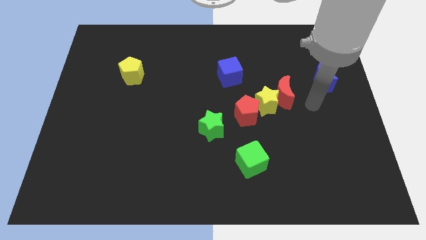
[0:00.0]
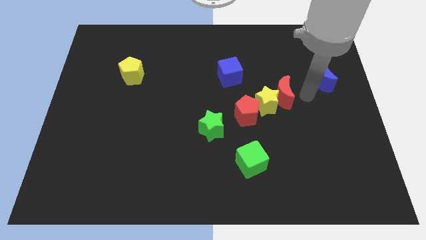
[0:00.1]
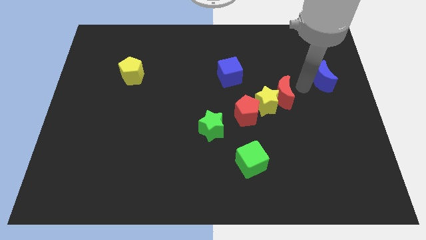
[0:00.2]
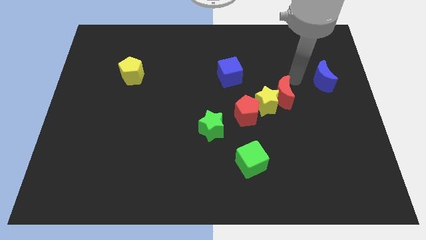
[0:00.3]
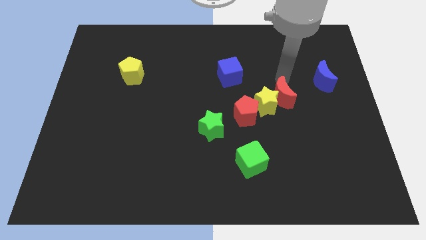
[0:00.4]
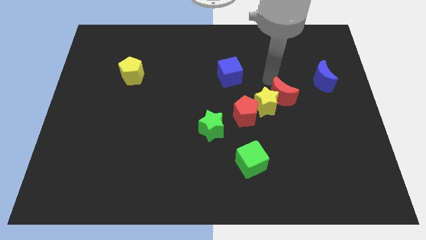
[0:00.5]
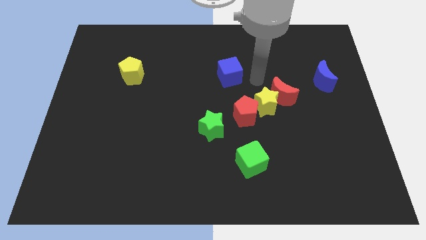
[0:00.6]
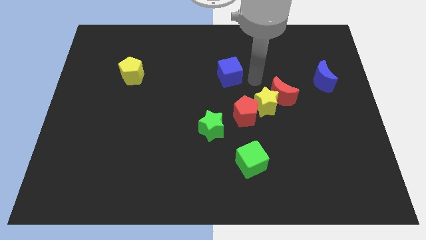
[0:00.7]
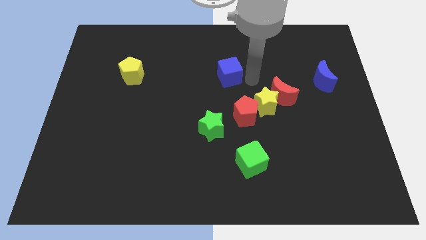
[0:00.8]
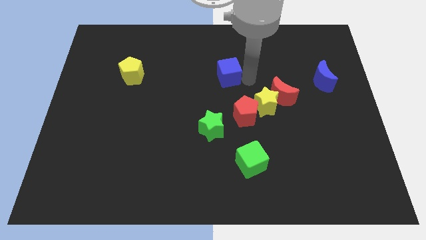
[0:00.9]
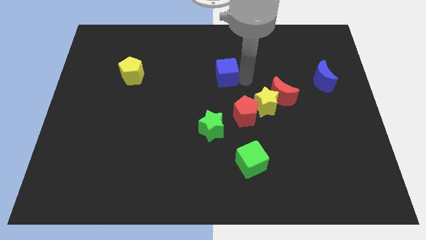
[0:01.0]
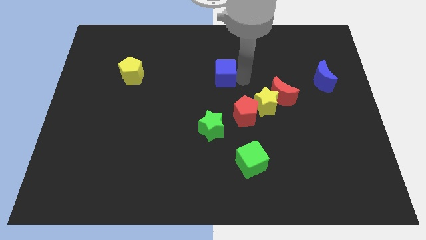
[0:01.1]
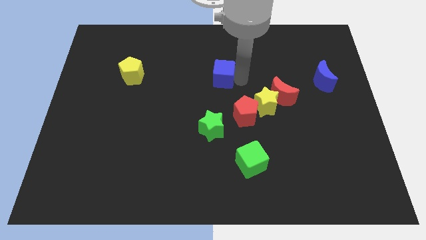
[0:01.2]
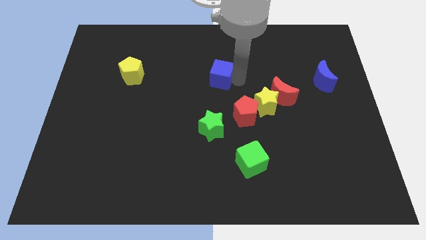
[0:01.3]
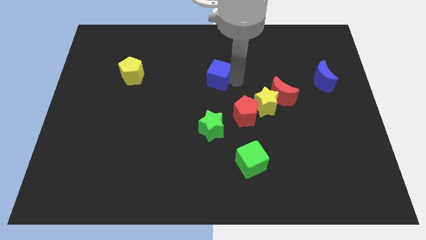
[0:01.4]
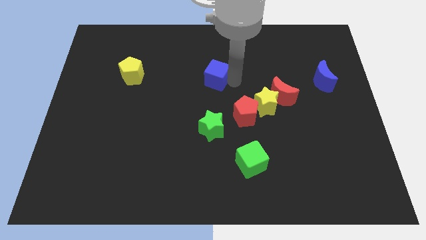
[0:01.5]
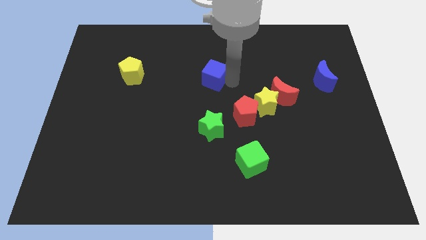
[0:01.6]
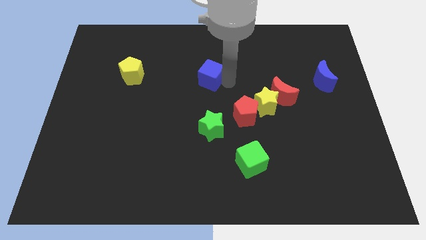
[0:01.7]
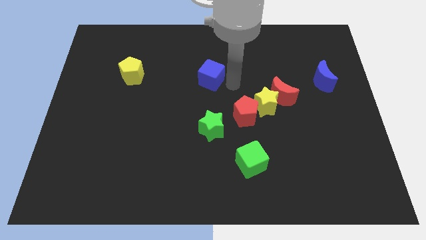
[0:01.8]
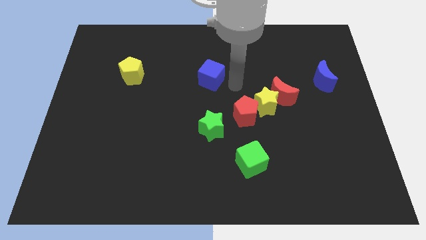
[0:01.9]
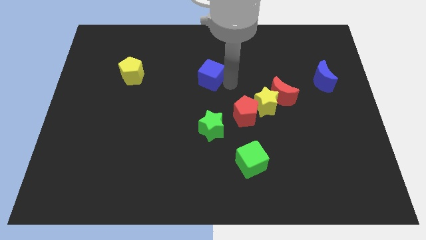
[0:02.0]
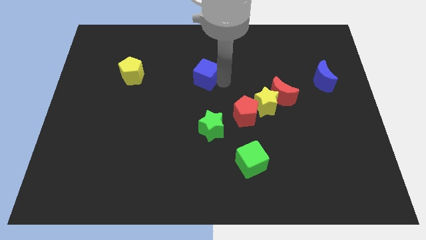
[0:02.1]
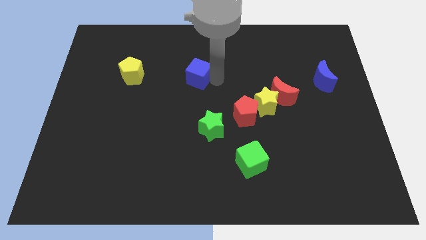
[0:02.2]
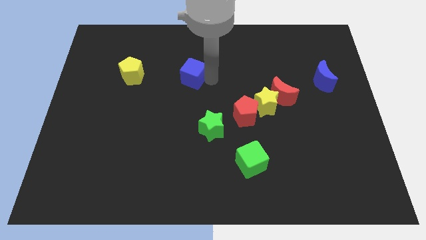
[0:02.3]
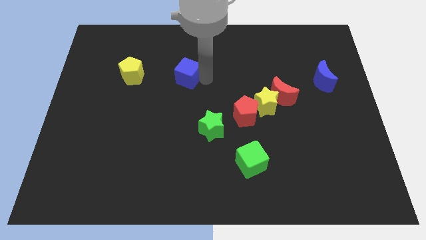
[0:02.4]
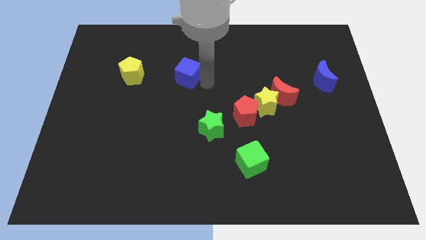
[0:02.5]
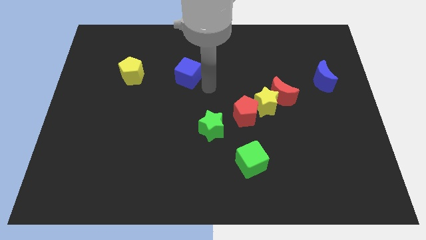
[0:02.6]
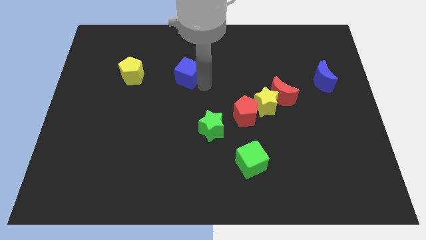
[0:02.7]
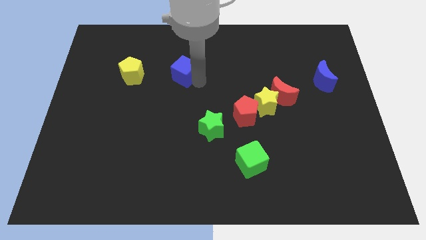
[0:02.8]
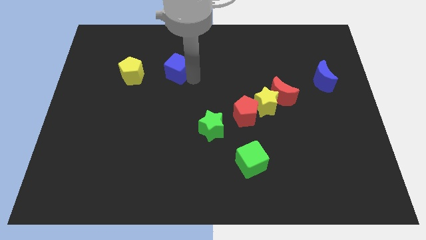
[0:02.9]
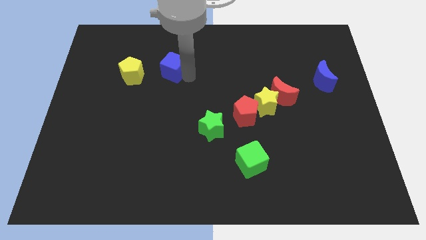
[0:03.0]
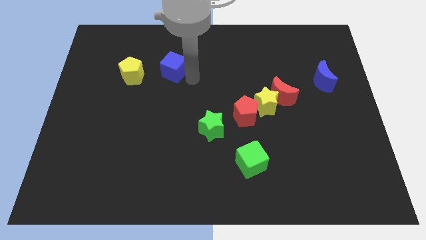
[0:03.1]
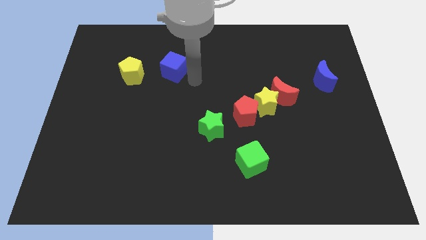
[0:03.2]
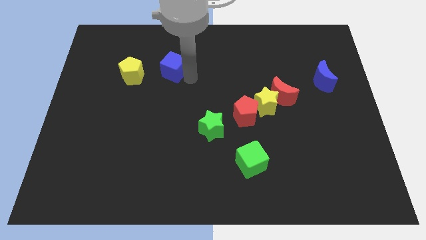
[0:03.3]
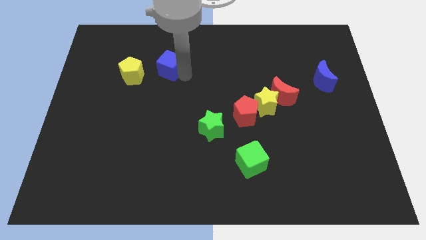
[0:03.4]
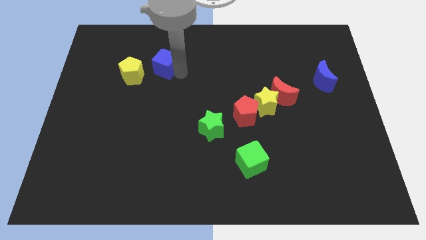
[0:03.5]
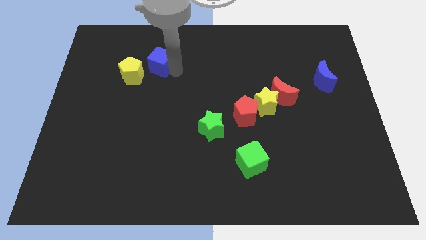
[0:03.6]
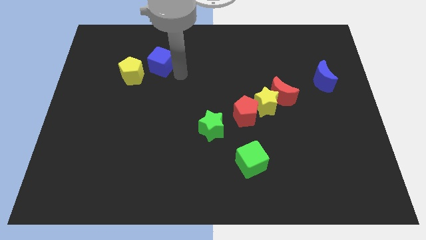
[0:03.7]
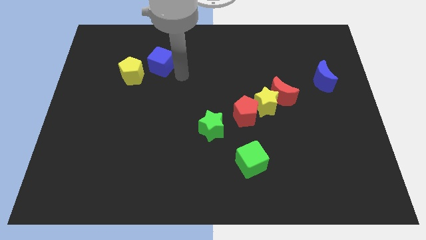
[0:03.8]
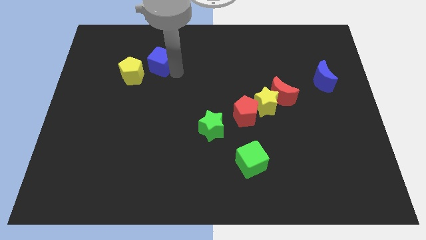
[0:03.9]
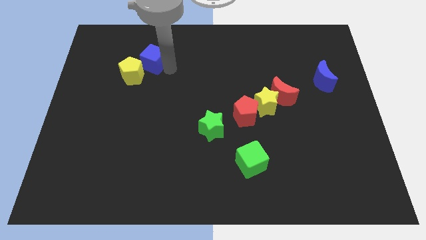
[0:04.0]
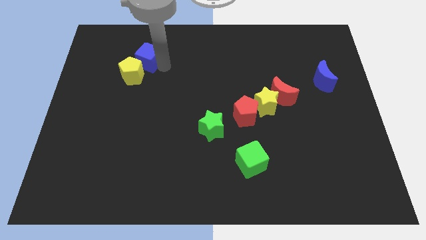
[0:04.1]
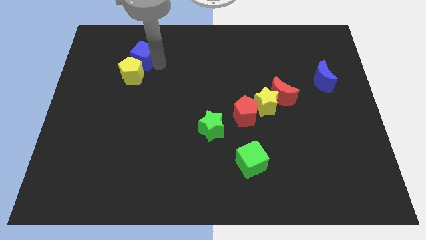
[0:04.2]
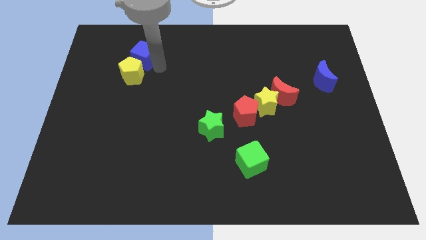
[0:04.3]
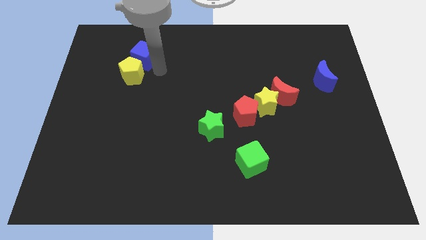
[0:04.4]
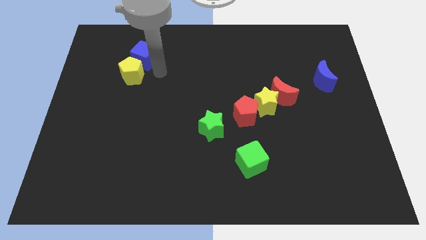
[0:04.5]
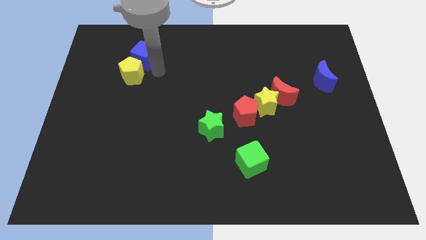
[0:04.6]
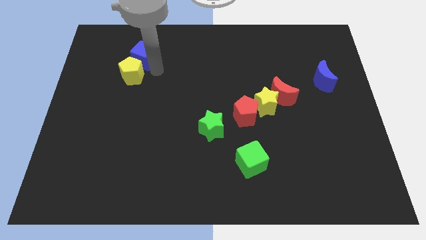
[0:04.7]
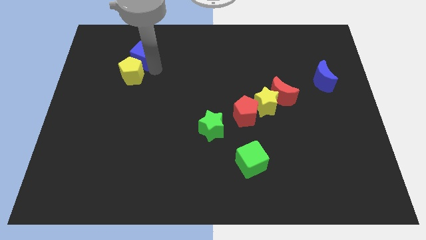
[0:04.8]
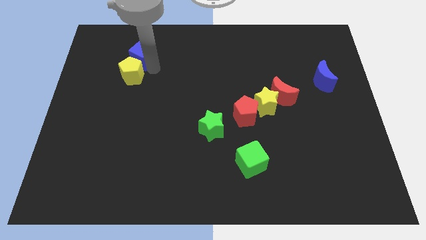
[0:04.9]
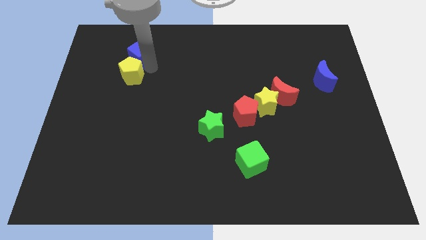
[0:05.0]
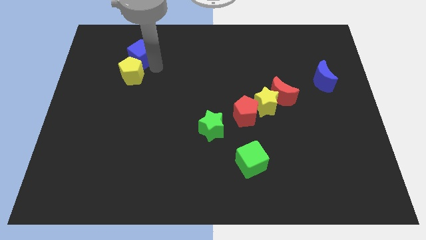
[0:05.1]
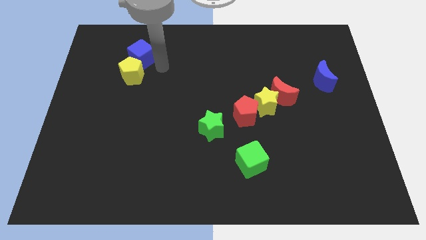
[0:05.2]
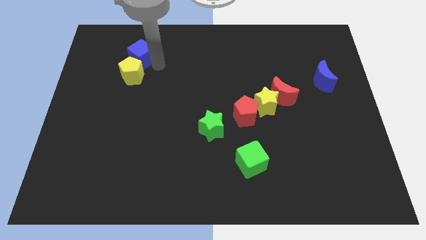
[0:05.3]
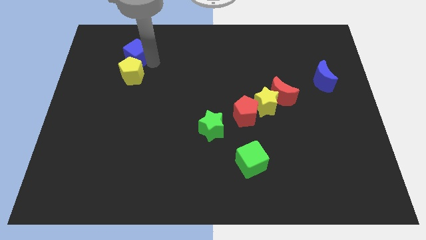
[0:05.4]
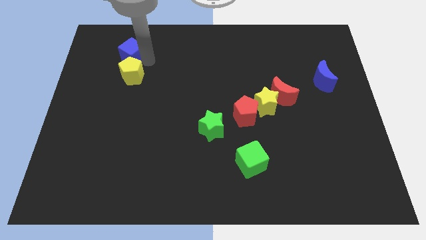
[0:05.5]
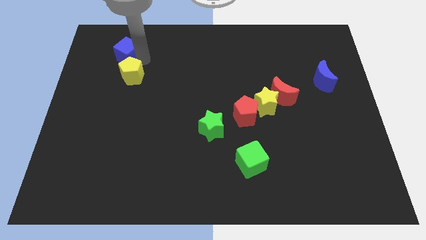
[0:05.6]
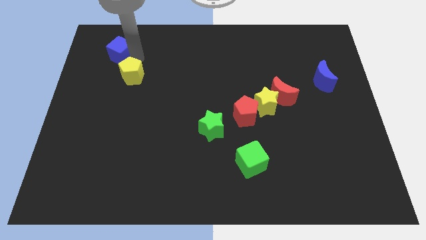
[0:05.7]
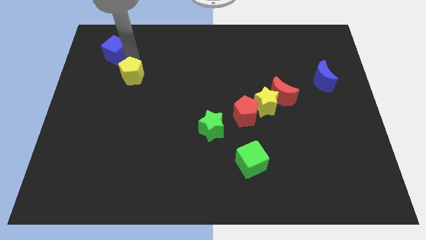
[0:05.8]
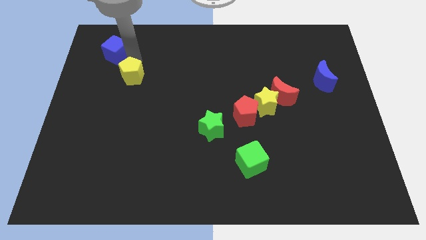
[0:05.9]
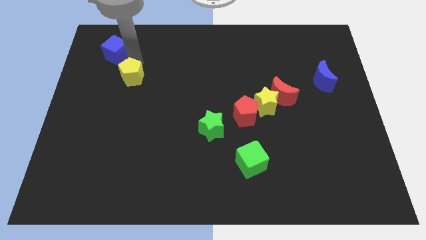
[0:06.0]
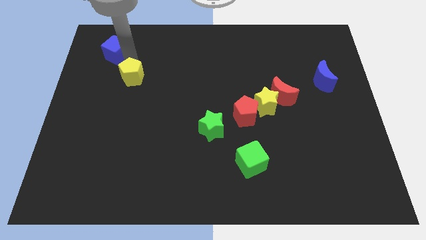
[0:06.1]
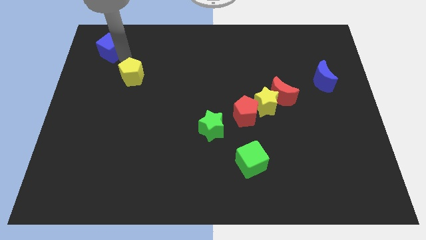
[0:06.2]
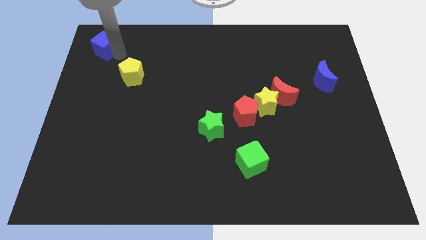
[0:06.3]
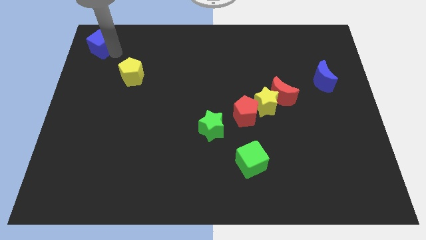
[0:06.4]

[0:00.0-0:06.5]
put the blue cube to the top left
